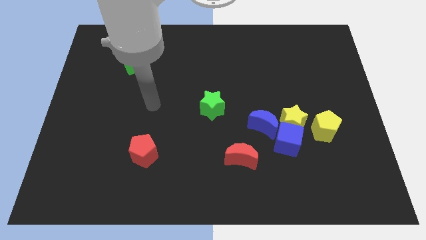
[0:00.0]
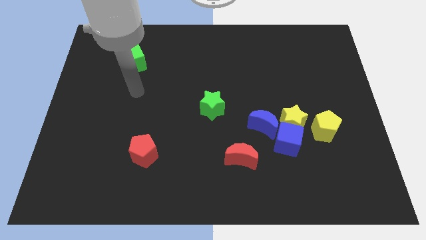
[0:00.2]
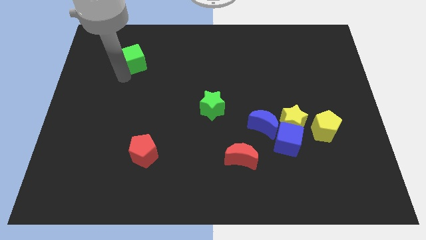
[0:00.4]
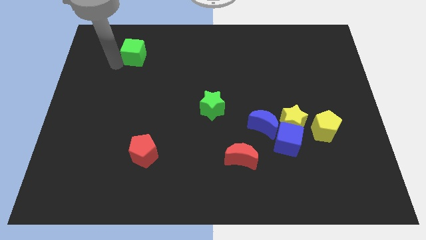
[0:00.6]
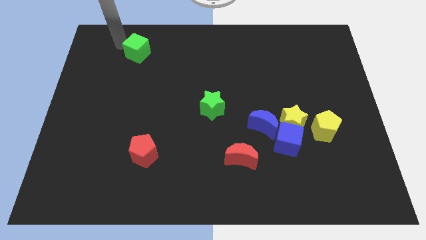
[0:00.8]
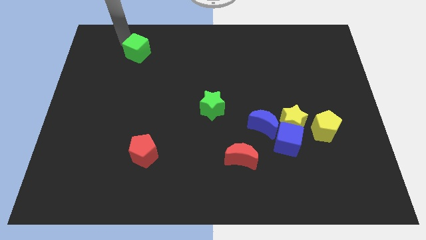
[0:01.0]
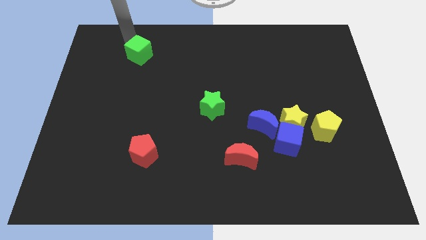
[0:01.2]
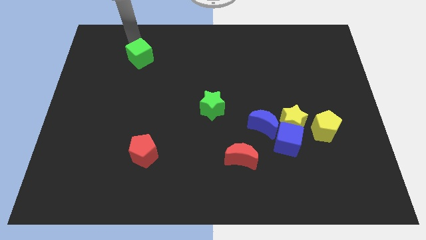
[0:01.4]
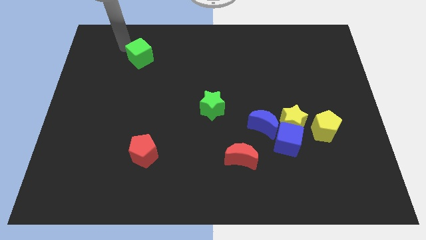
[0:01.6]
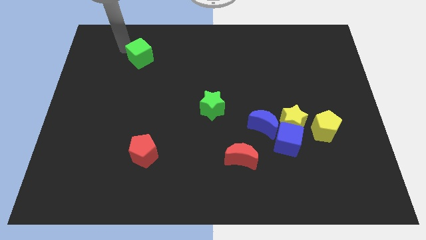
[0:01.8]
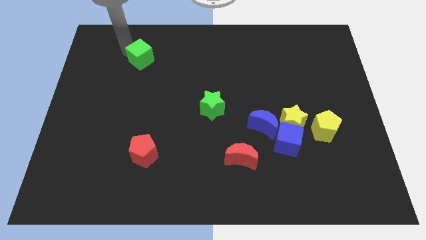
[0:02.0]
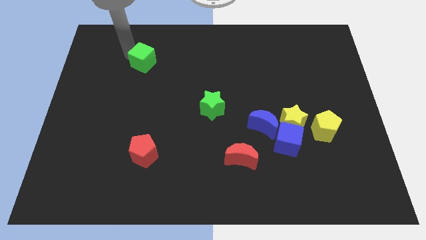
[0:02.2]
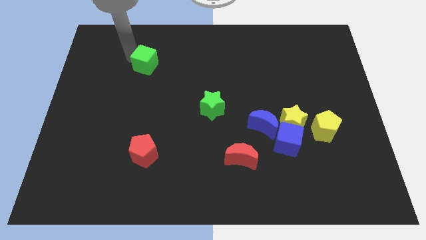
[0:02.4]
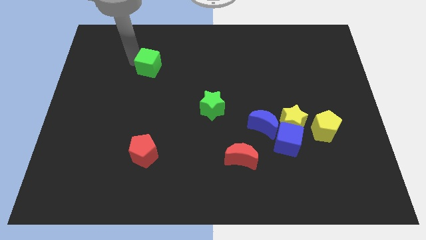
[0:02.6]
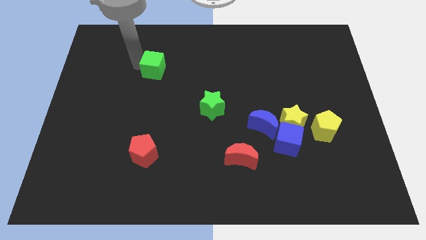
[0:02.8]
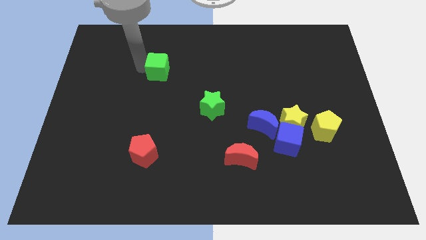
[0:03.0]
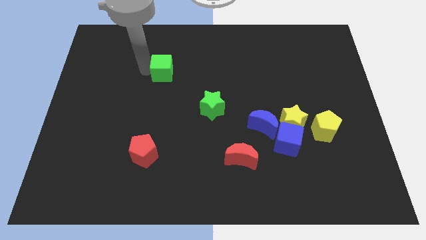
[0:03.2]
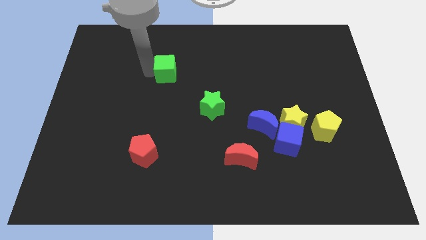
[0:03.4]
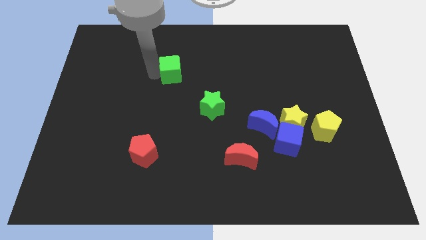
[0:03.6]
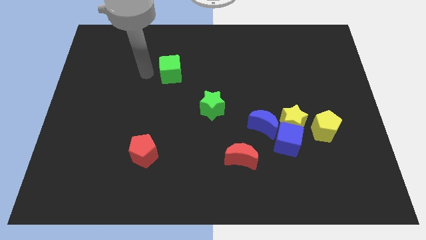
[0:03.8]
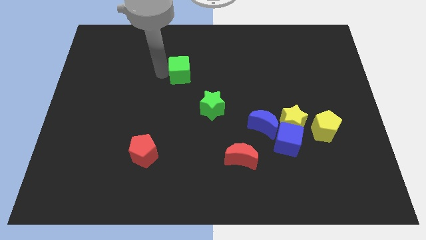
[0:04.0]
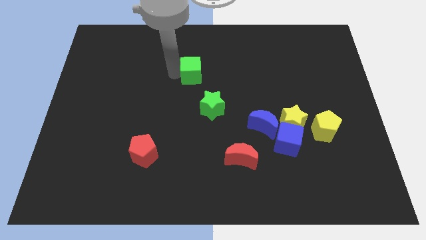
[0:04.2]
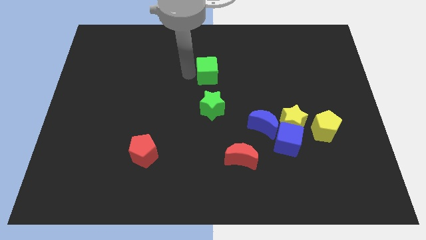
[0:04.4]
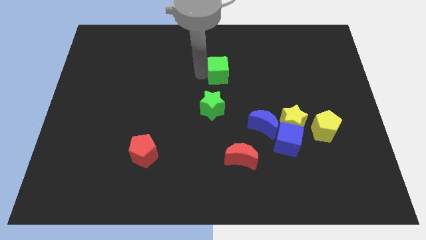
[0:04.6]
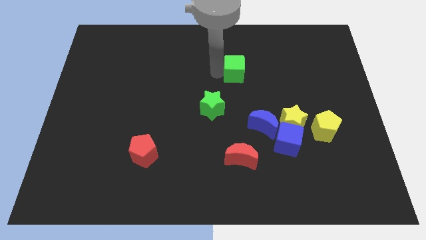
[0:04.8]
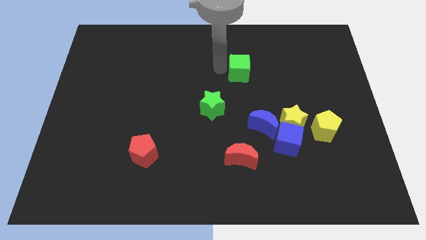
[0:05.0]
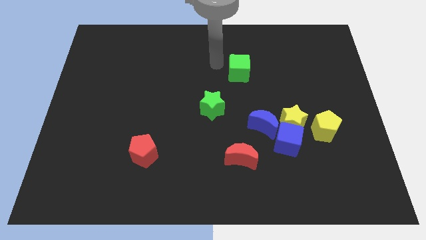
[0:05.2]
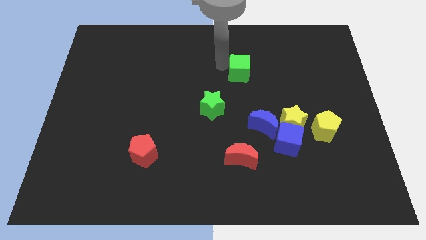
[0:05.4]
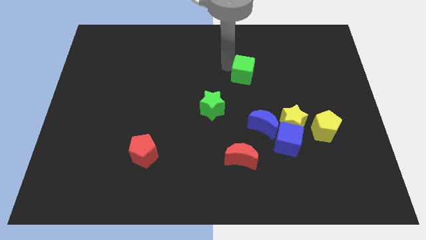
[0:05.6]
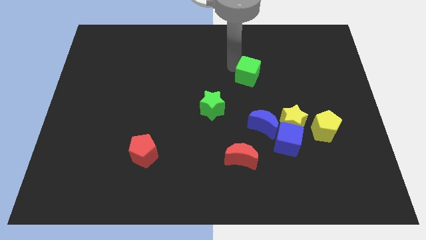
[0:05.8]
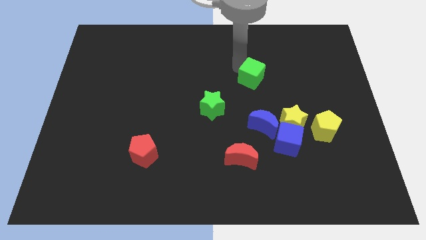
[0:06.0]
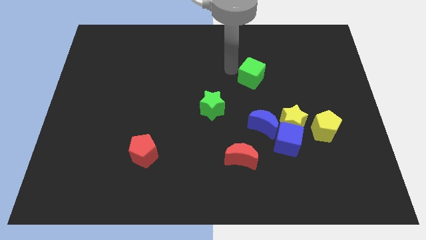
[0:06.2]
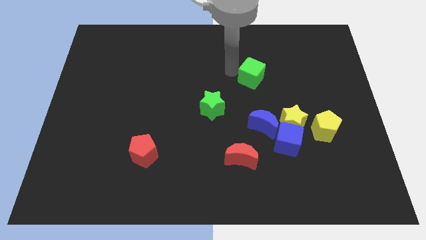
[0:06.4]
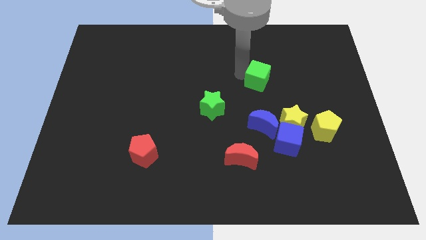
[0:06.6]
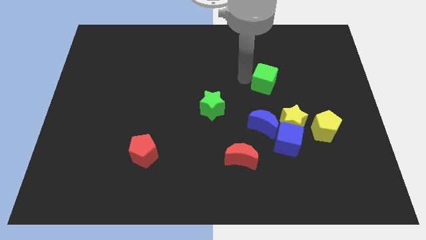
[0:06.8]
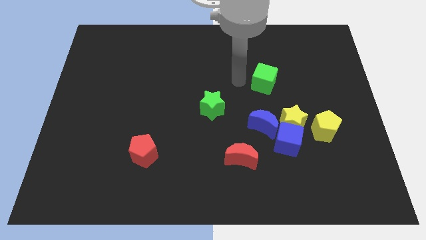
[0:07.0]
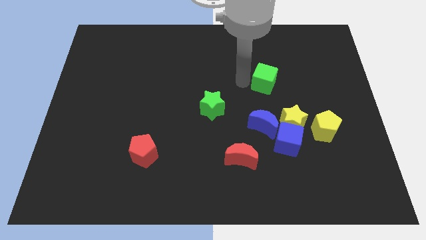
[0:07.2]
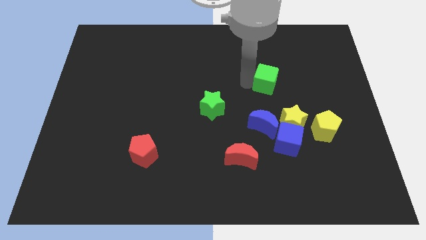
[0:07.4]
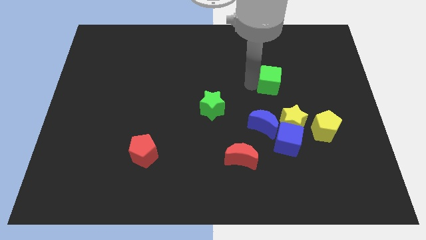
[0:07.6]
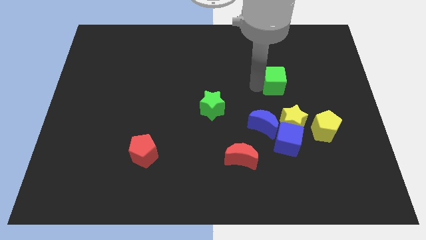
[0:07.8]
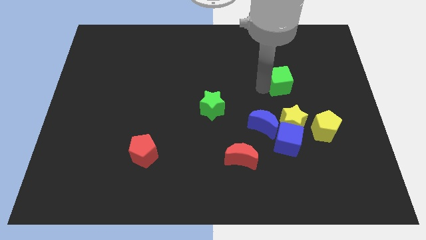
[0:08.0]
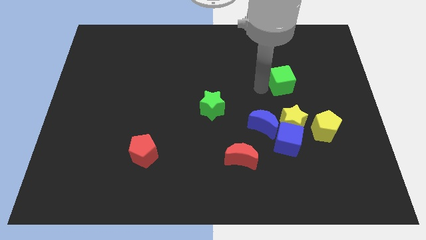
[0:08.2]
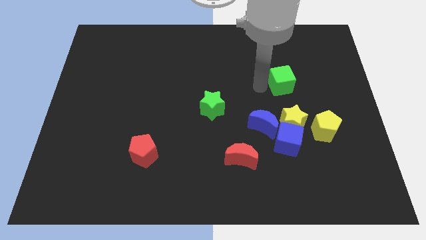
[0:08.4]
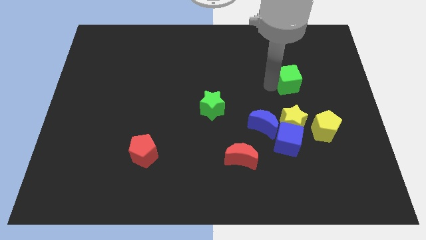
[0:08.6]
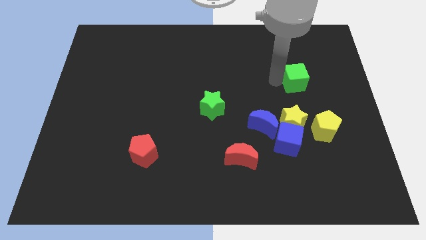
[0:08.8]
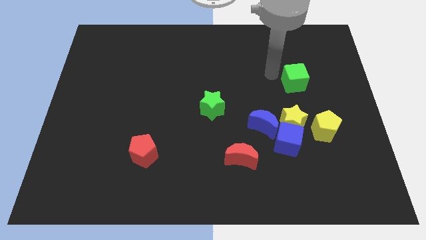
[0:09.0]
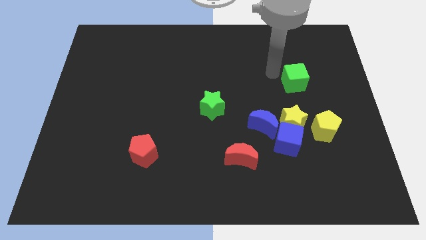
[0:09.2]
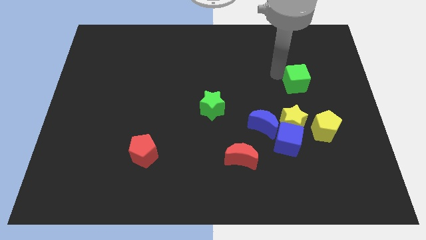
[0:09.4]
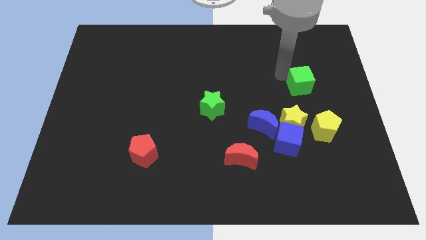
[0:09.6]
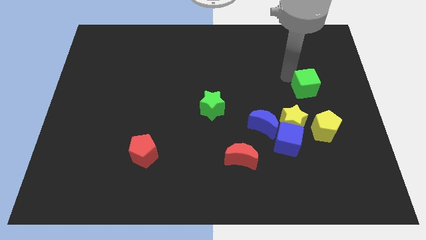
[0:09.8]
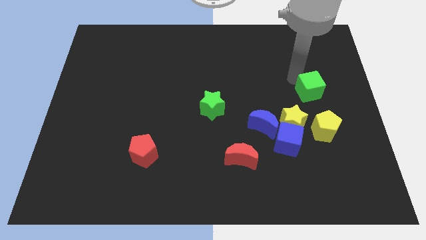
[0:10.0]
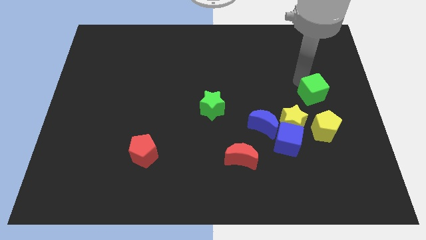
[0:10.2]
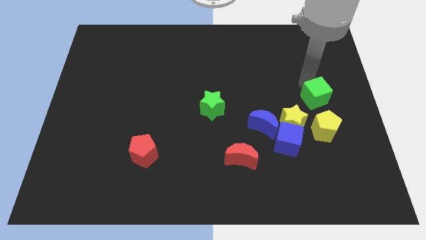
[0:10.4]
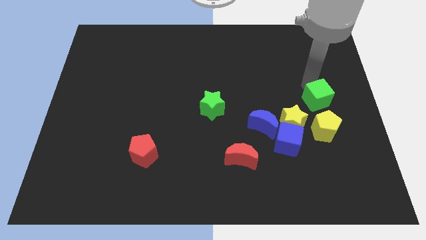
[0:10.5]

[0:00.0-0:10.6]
put the green cube to the center right

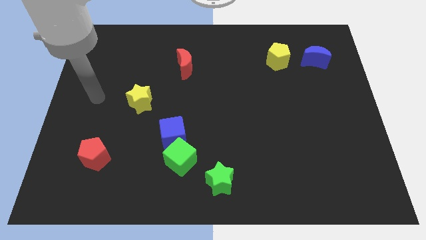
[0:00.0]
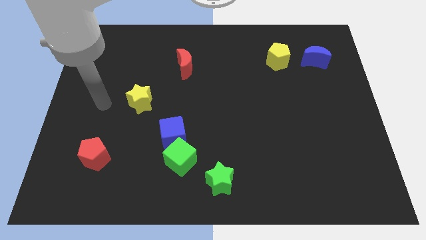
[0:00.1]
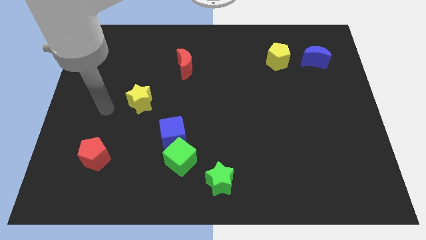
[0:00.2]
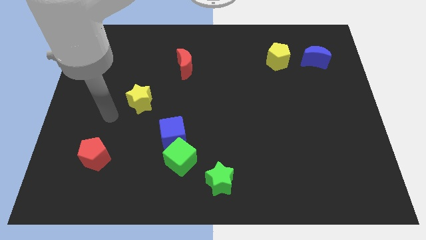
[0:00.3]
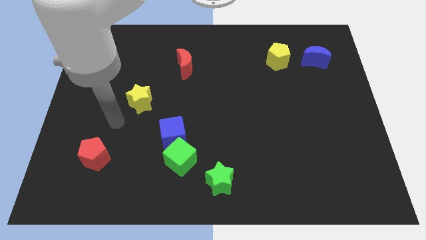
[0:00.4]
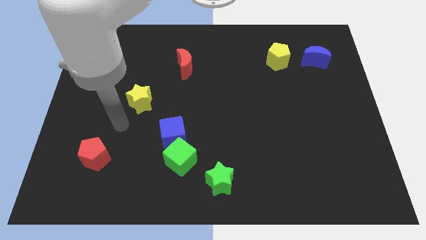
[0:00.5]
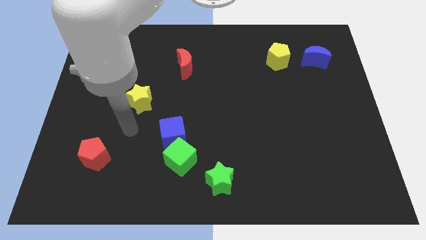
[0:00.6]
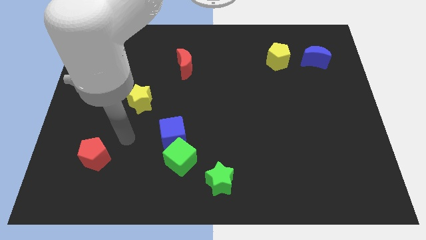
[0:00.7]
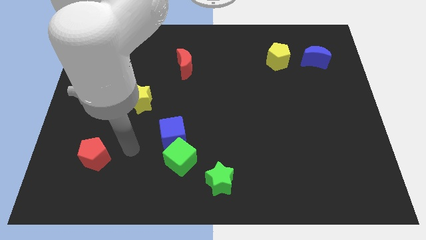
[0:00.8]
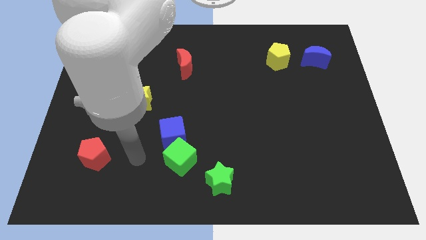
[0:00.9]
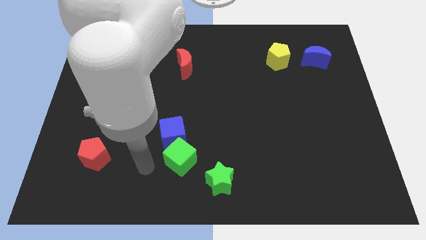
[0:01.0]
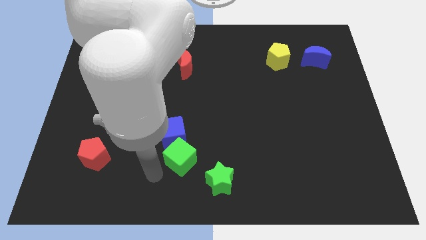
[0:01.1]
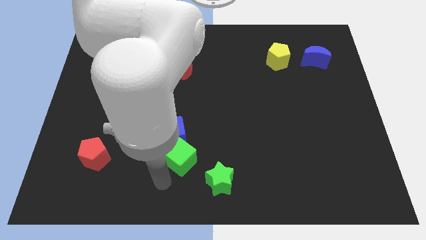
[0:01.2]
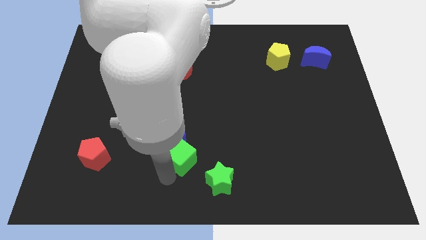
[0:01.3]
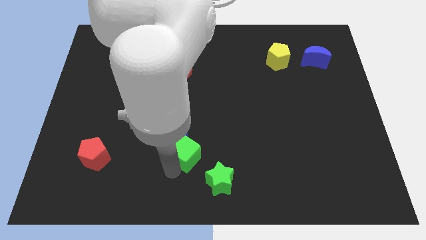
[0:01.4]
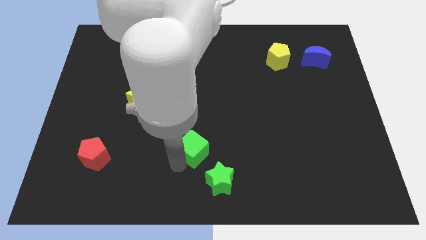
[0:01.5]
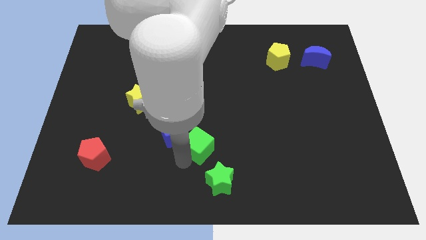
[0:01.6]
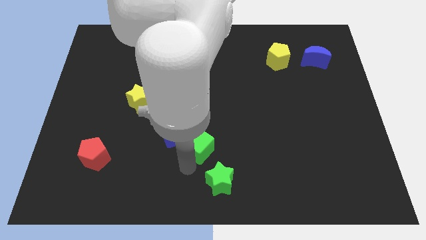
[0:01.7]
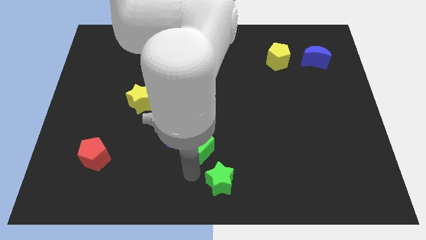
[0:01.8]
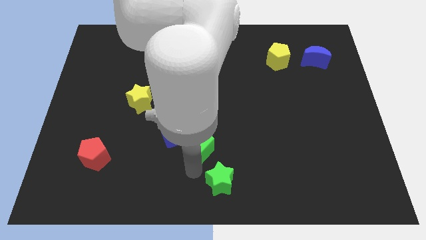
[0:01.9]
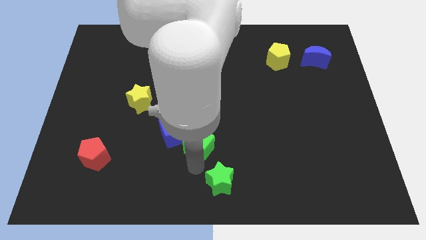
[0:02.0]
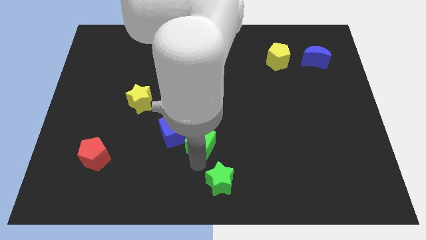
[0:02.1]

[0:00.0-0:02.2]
slide the green cube to the middle
